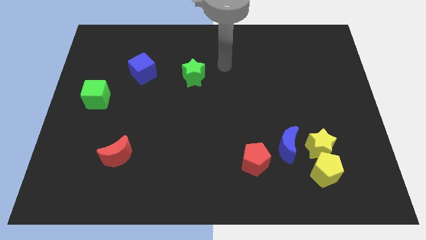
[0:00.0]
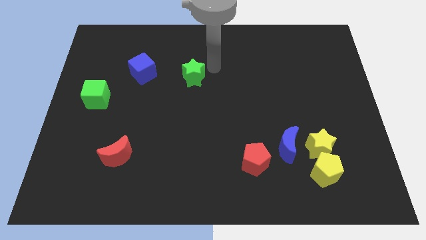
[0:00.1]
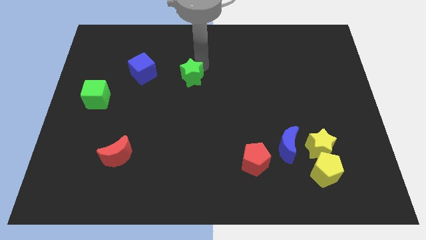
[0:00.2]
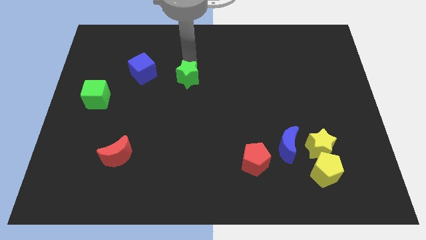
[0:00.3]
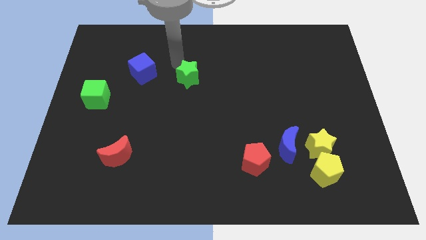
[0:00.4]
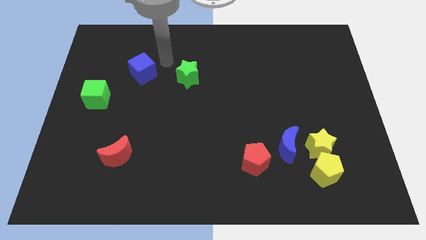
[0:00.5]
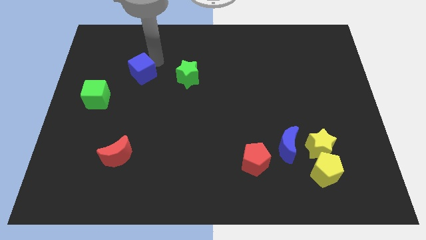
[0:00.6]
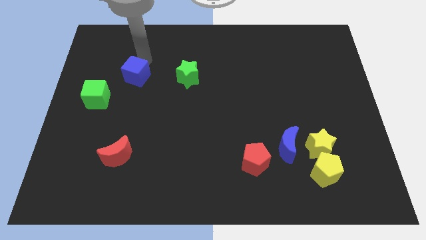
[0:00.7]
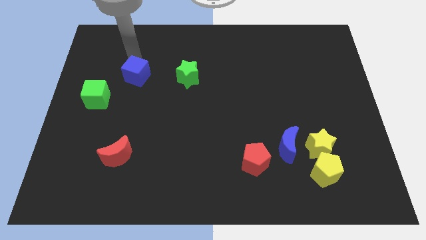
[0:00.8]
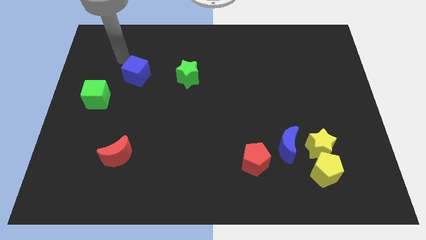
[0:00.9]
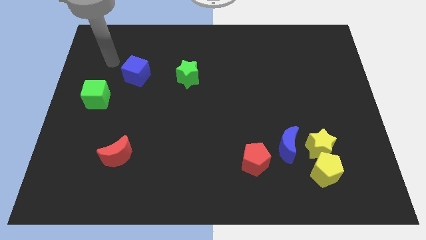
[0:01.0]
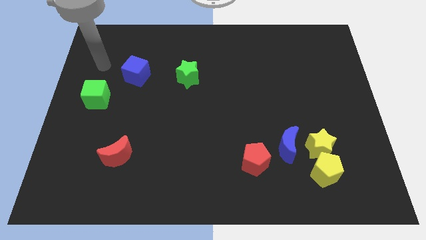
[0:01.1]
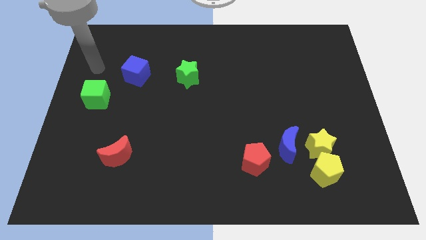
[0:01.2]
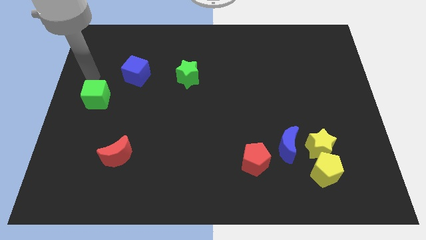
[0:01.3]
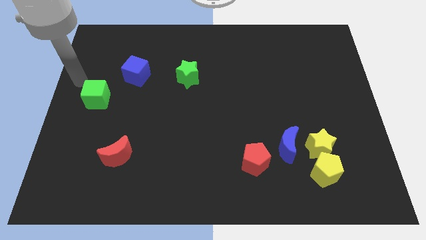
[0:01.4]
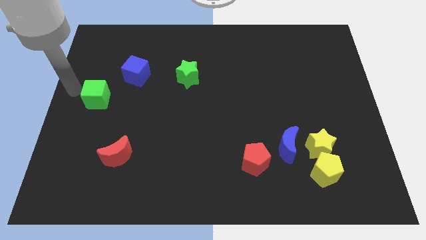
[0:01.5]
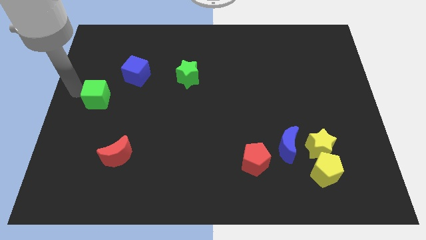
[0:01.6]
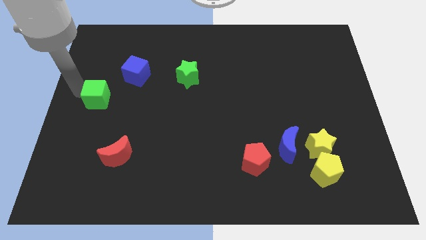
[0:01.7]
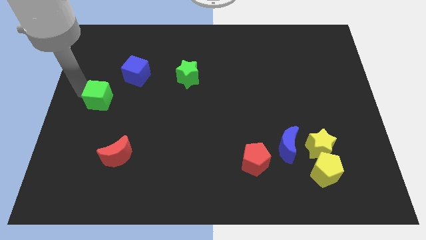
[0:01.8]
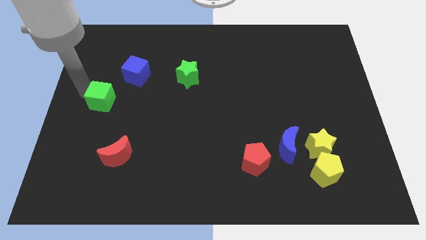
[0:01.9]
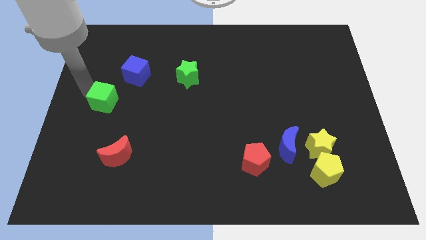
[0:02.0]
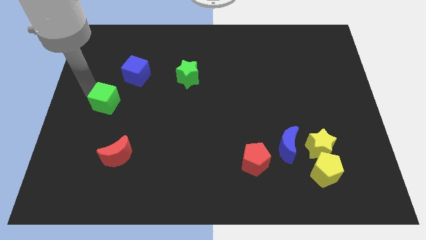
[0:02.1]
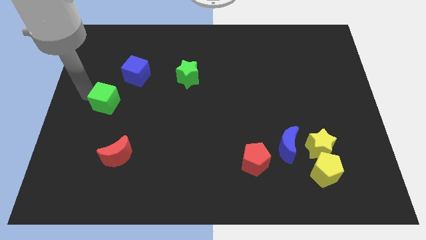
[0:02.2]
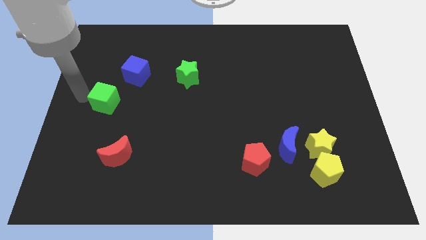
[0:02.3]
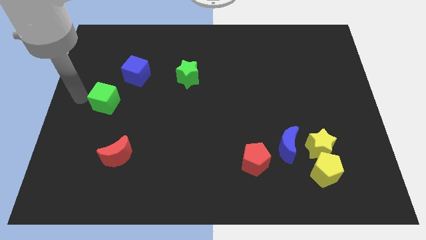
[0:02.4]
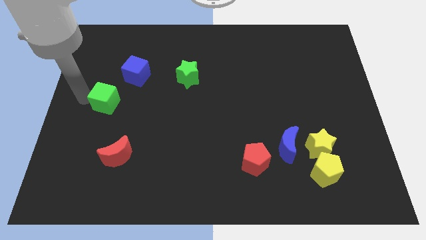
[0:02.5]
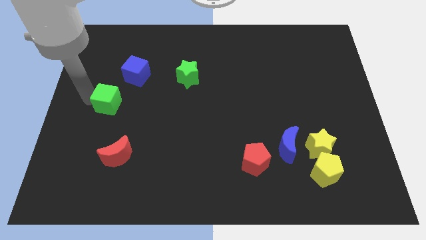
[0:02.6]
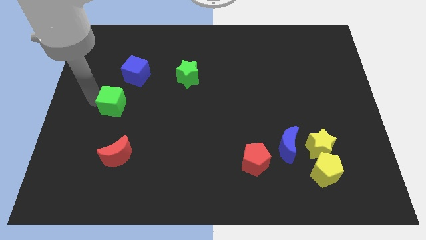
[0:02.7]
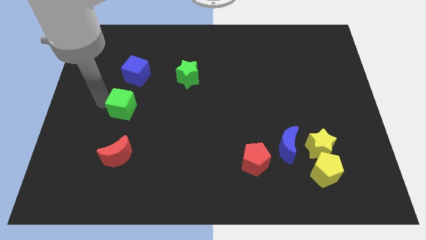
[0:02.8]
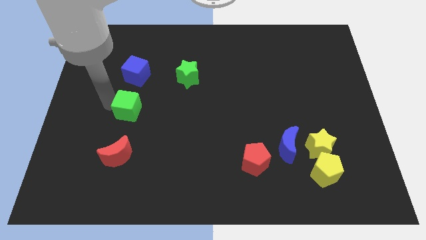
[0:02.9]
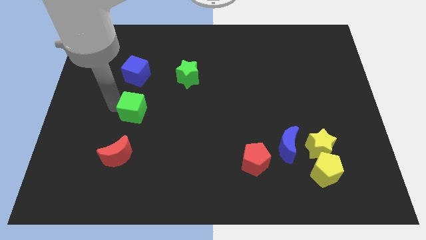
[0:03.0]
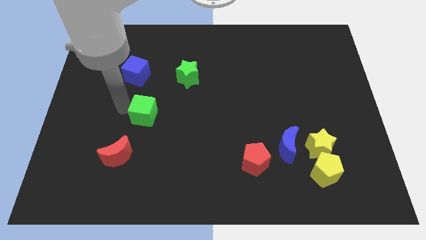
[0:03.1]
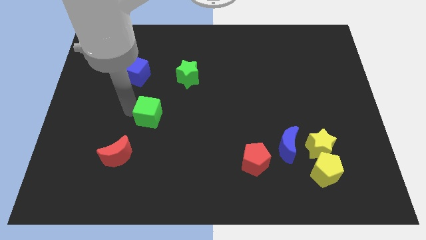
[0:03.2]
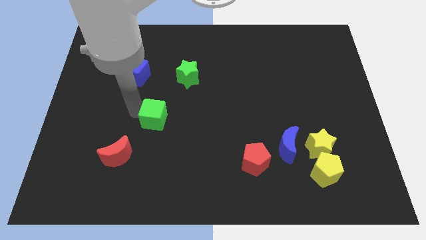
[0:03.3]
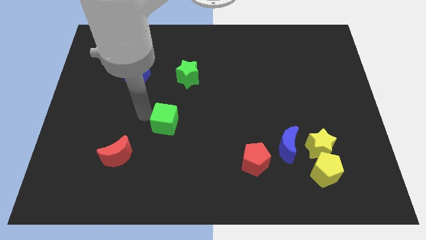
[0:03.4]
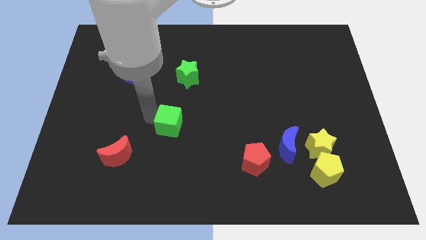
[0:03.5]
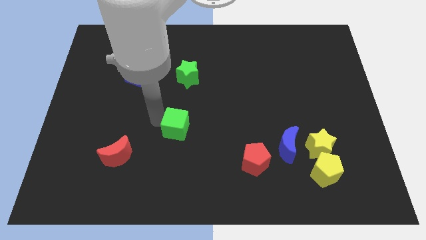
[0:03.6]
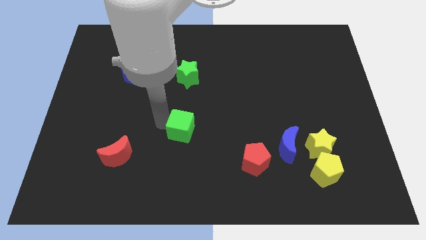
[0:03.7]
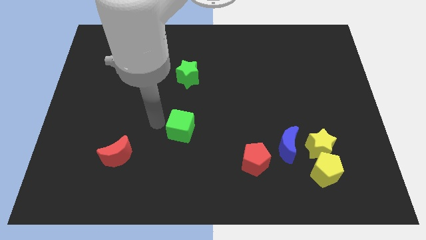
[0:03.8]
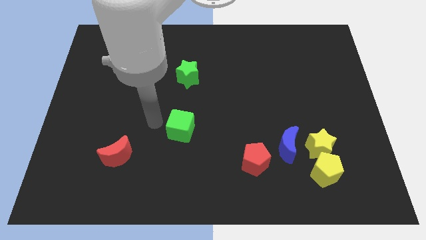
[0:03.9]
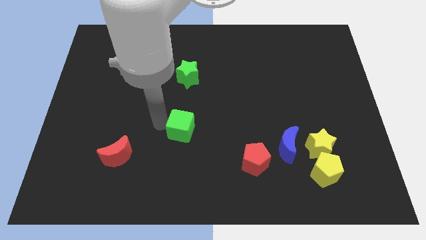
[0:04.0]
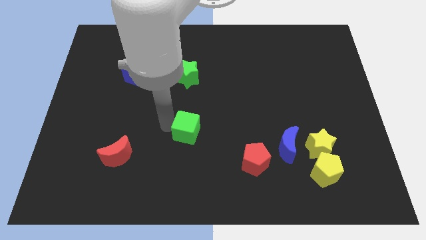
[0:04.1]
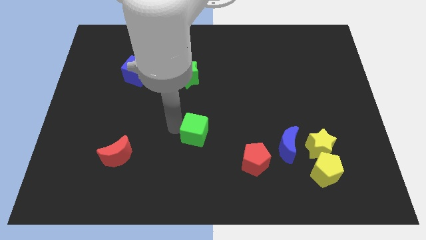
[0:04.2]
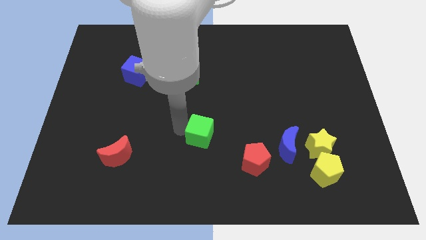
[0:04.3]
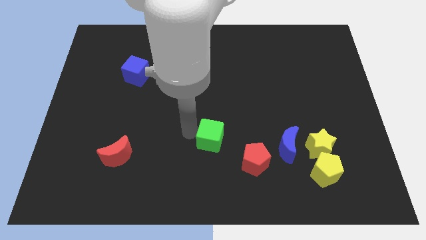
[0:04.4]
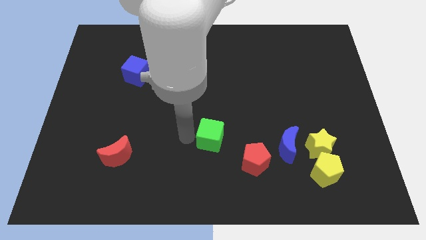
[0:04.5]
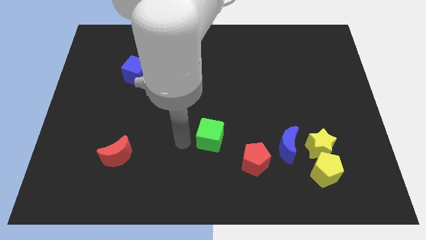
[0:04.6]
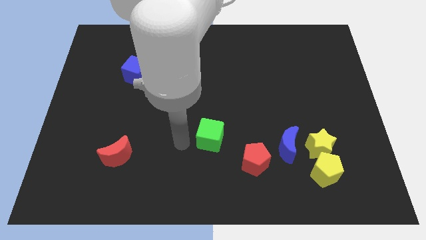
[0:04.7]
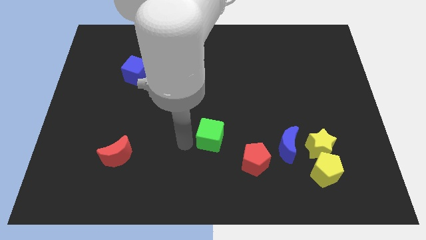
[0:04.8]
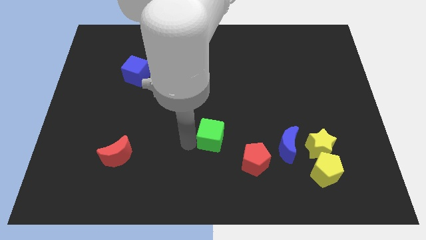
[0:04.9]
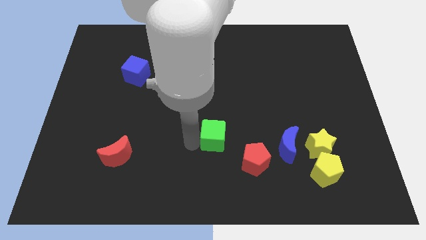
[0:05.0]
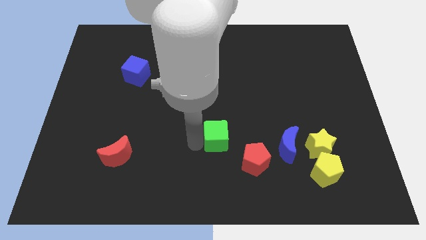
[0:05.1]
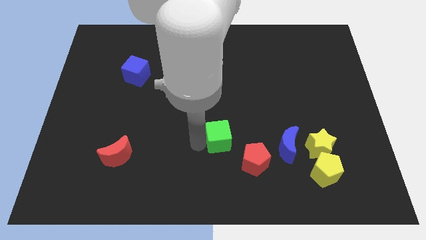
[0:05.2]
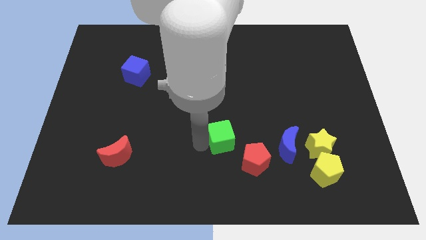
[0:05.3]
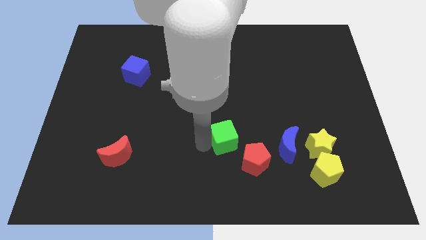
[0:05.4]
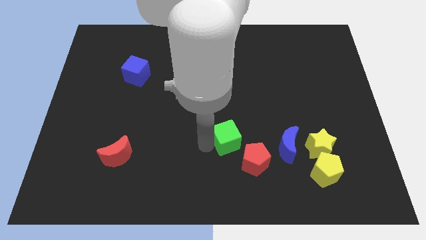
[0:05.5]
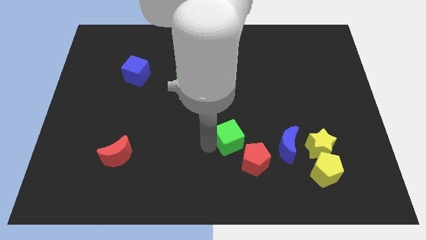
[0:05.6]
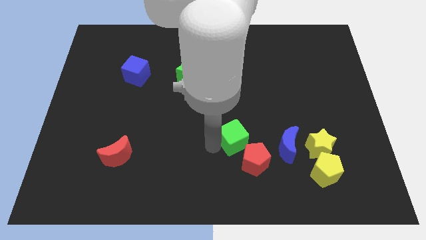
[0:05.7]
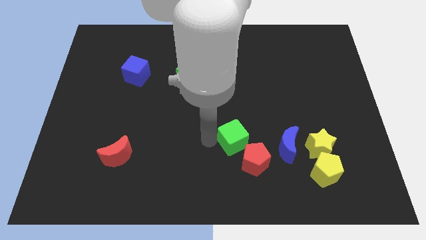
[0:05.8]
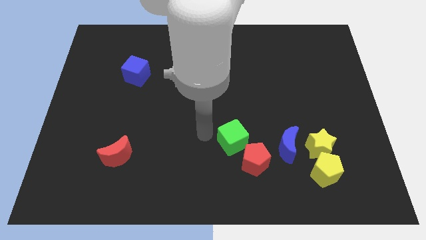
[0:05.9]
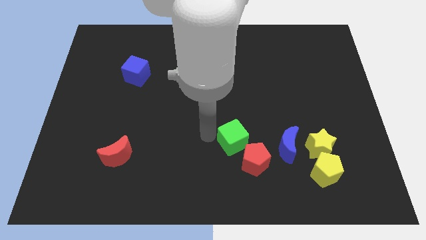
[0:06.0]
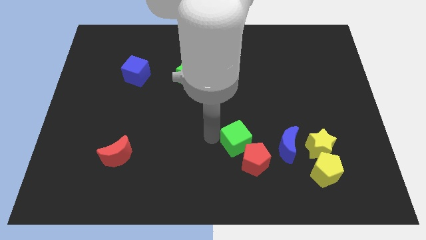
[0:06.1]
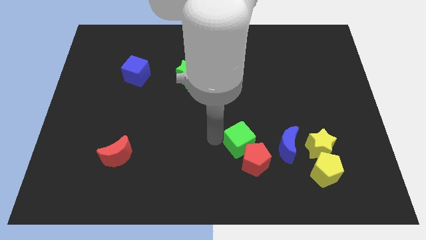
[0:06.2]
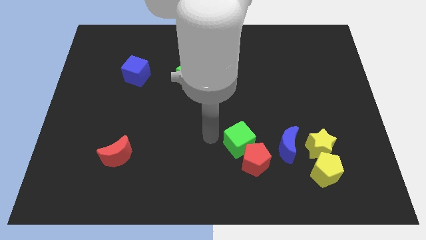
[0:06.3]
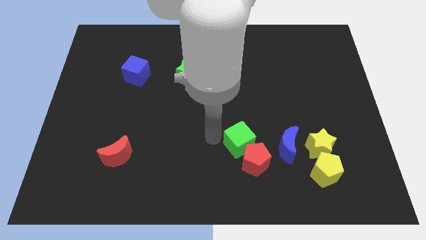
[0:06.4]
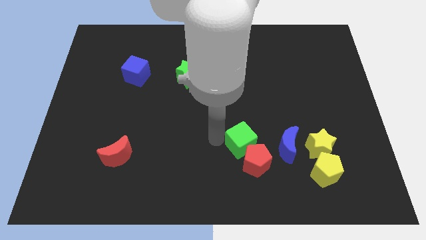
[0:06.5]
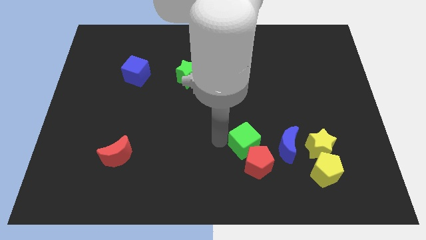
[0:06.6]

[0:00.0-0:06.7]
move the green cube just left of the yellow star
